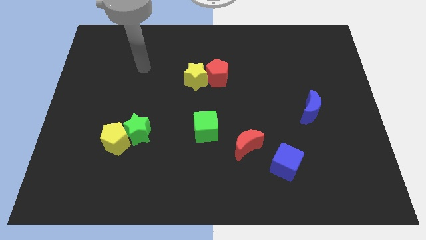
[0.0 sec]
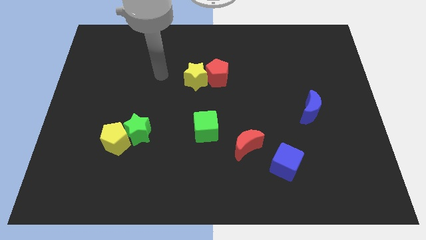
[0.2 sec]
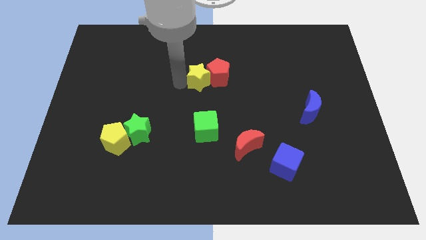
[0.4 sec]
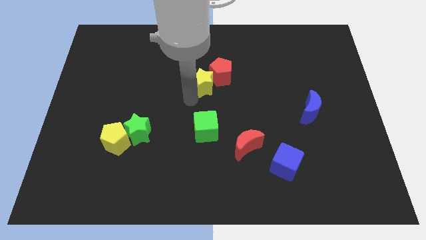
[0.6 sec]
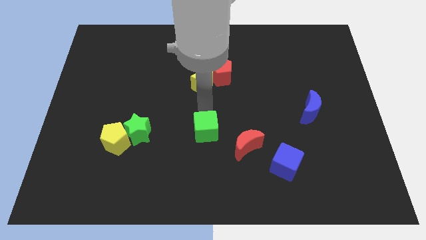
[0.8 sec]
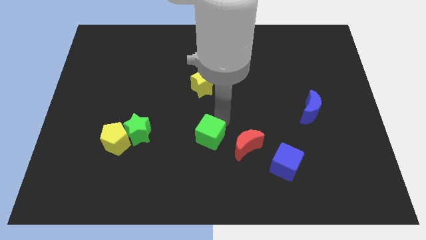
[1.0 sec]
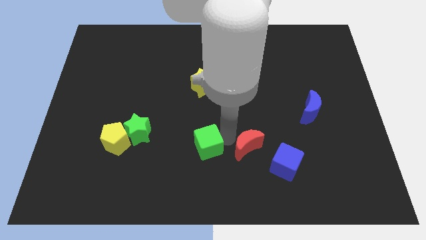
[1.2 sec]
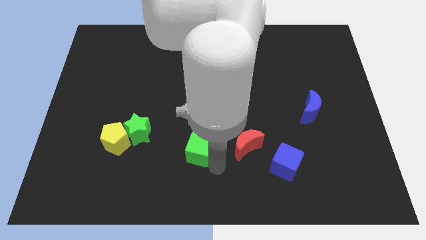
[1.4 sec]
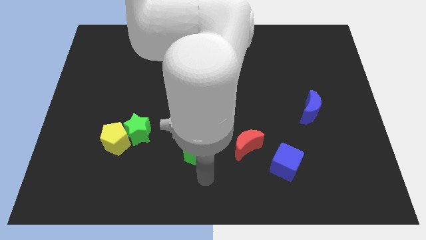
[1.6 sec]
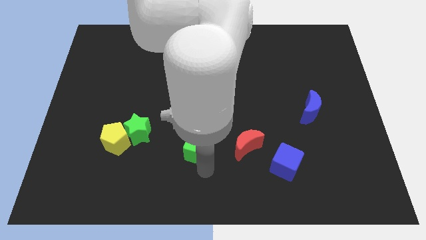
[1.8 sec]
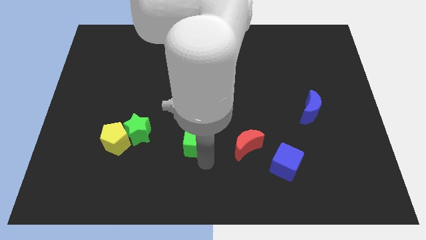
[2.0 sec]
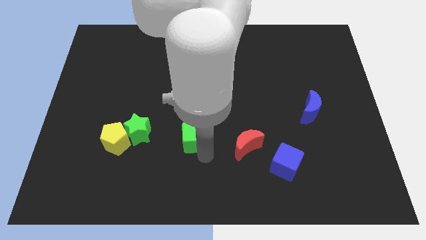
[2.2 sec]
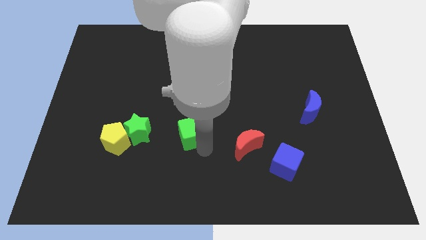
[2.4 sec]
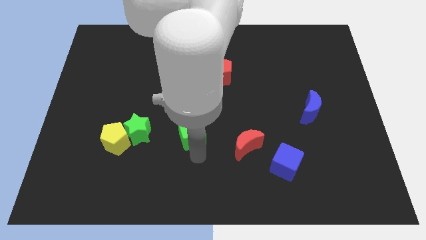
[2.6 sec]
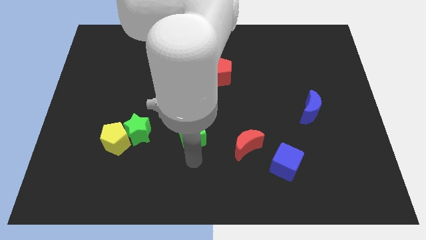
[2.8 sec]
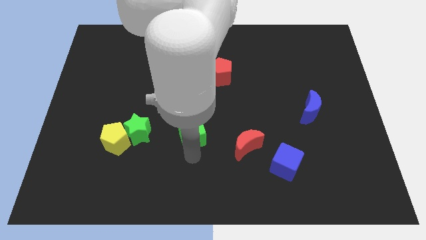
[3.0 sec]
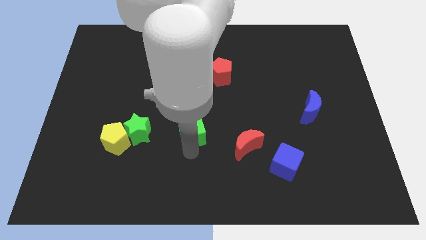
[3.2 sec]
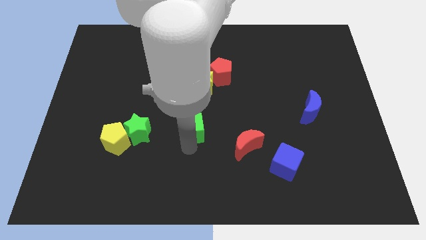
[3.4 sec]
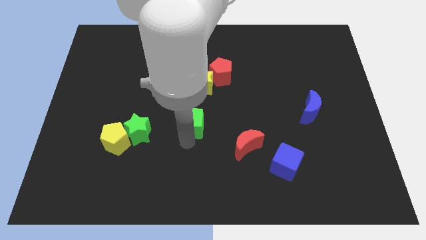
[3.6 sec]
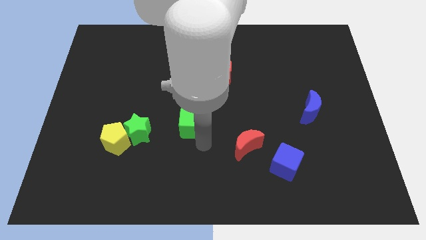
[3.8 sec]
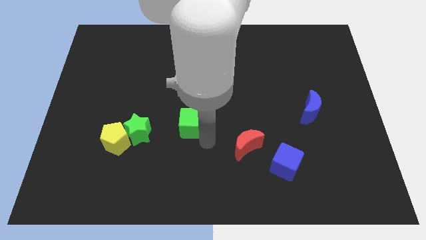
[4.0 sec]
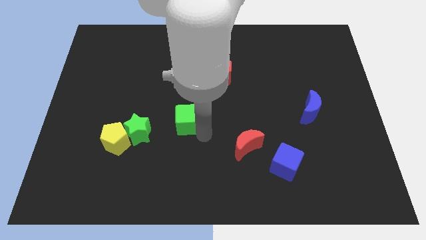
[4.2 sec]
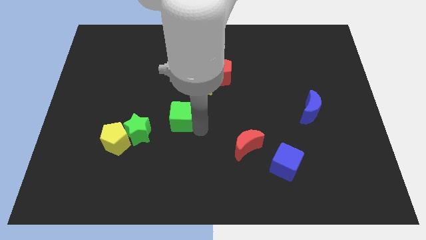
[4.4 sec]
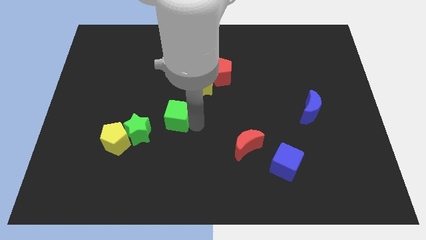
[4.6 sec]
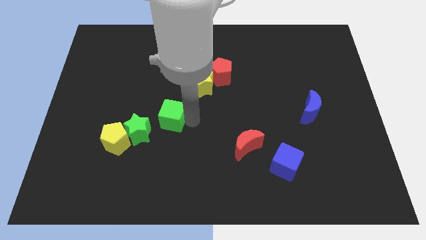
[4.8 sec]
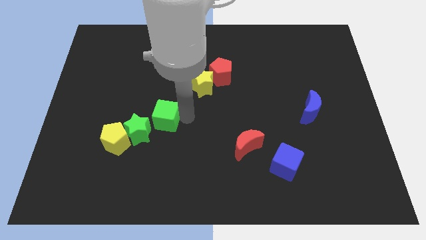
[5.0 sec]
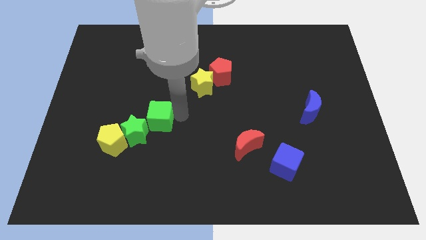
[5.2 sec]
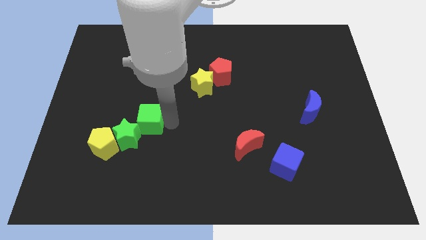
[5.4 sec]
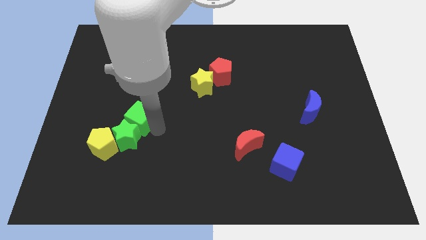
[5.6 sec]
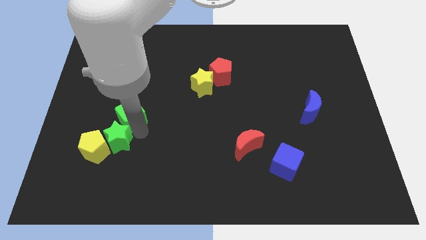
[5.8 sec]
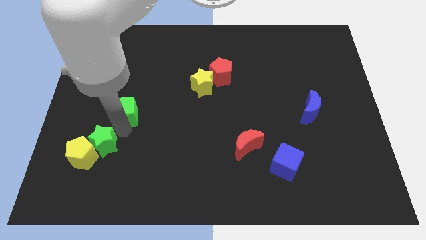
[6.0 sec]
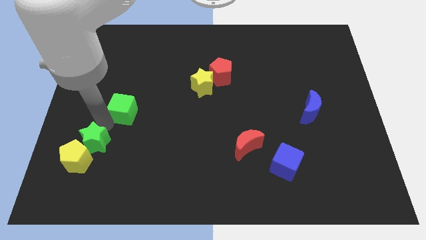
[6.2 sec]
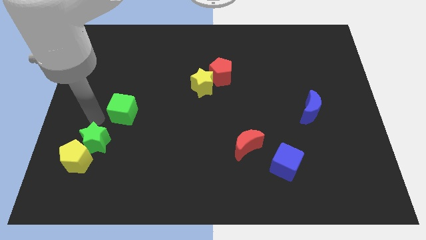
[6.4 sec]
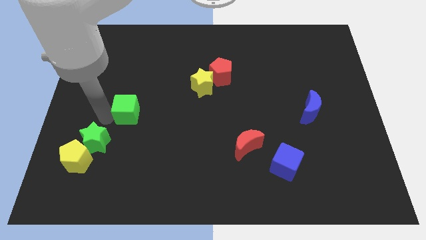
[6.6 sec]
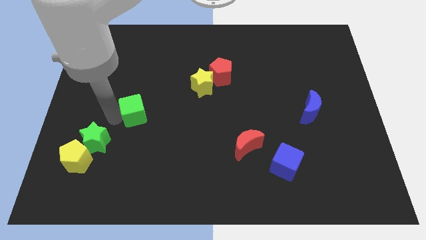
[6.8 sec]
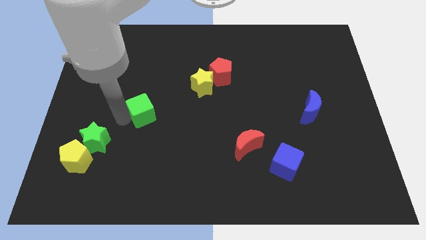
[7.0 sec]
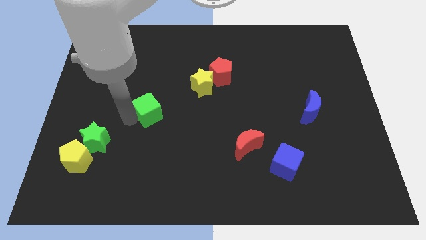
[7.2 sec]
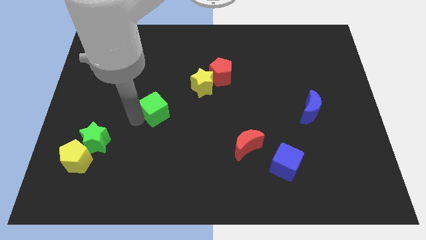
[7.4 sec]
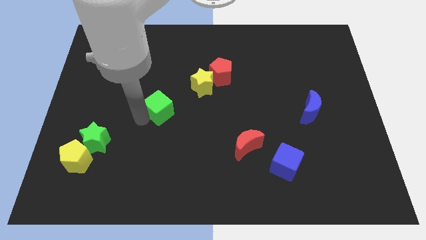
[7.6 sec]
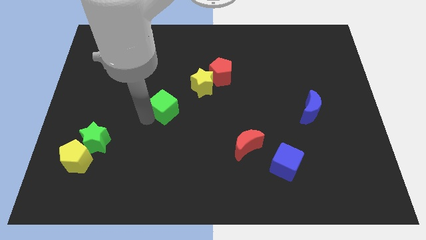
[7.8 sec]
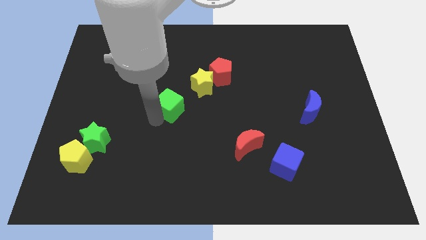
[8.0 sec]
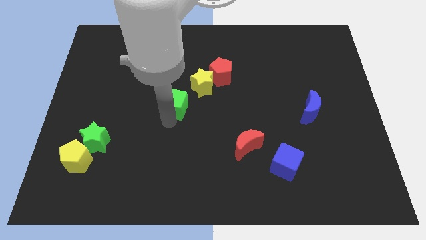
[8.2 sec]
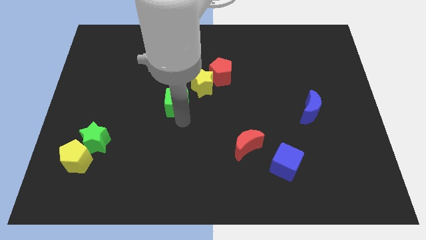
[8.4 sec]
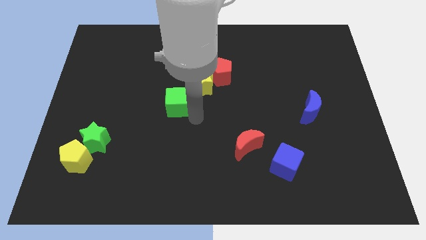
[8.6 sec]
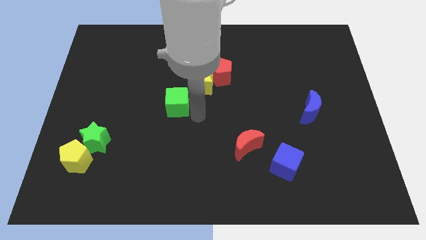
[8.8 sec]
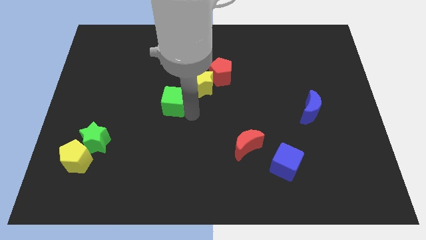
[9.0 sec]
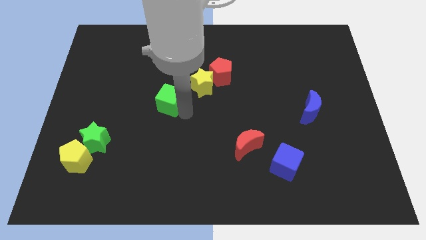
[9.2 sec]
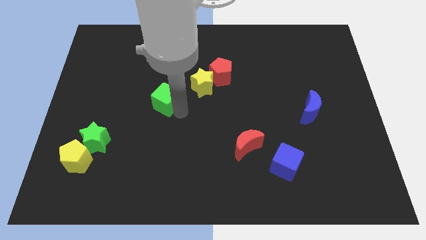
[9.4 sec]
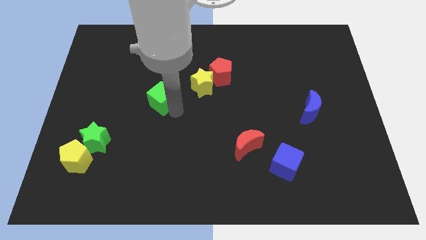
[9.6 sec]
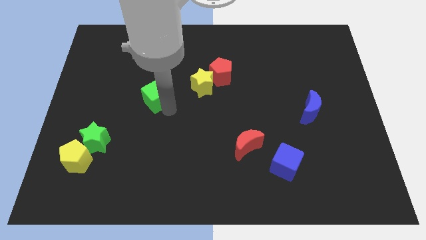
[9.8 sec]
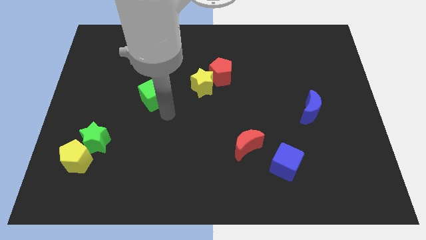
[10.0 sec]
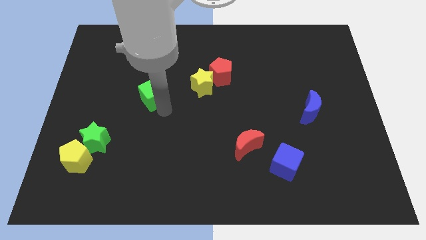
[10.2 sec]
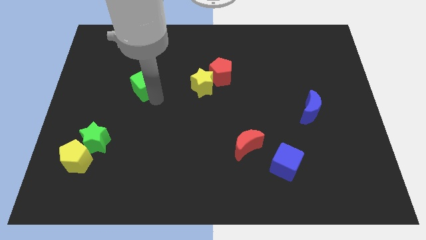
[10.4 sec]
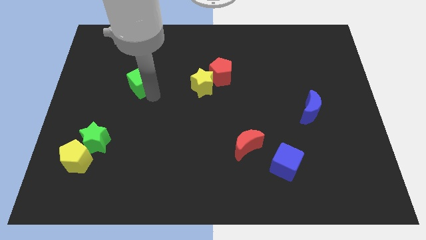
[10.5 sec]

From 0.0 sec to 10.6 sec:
slide the green cube up and then left

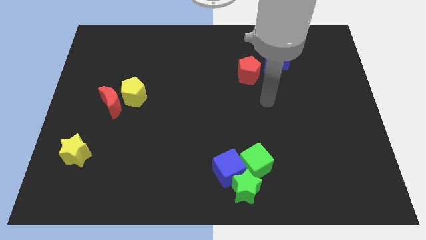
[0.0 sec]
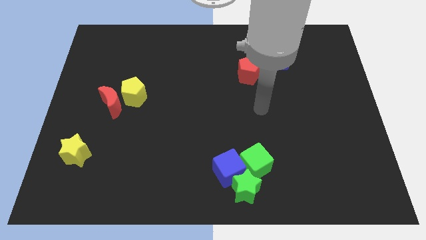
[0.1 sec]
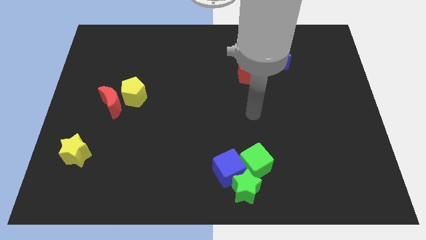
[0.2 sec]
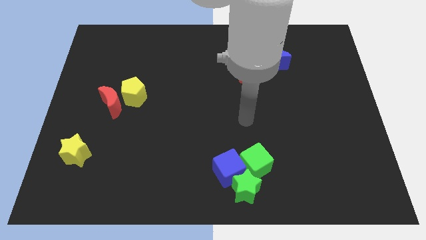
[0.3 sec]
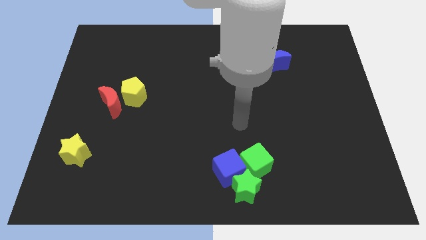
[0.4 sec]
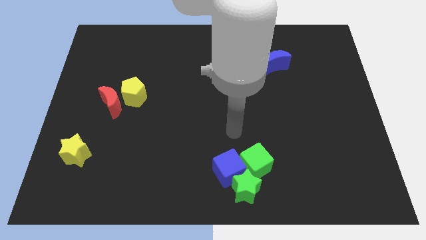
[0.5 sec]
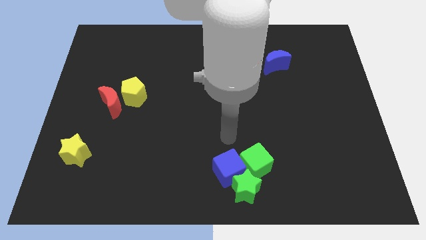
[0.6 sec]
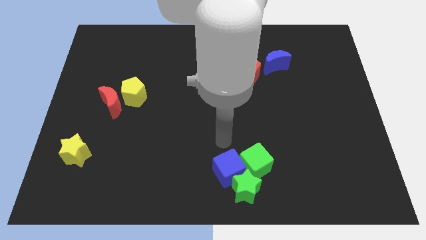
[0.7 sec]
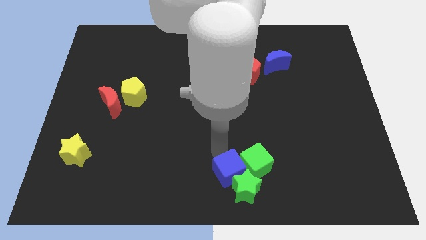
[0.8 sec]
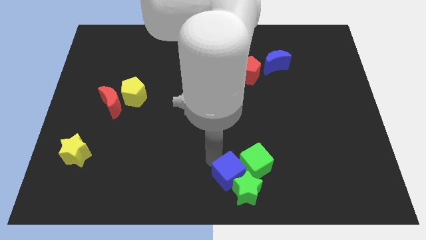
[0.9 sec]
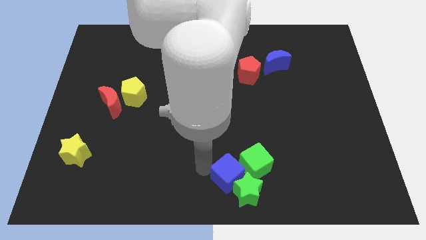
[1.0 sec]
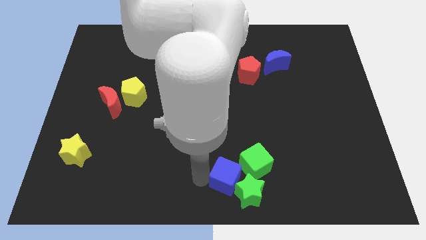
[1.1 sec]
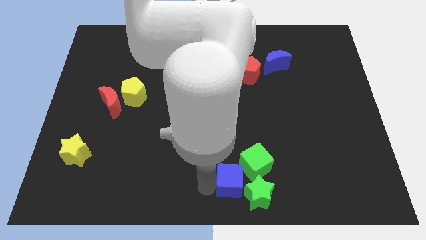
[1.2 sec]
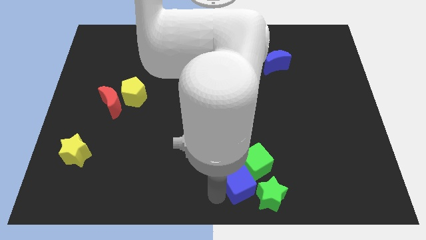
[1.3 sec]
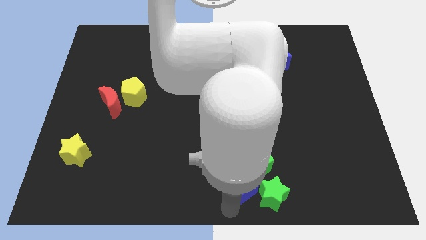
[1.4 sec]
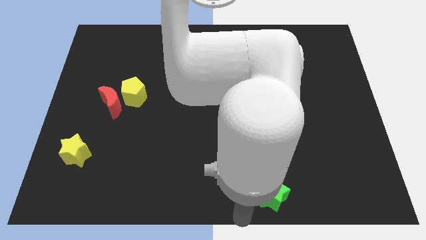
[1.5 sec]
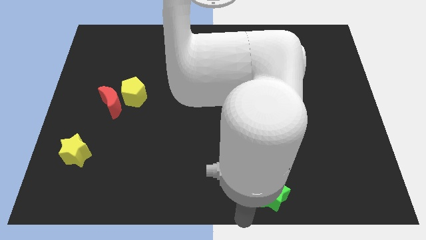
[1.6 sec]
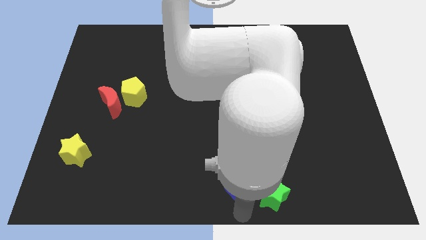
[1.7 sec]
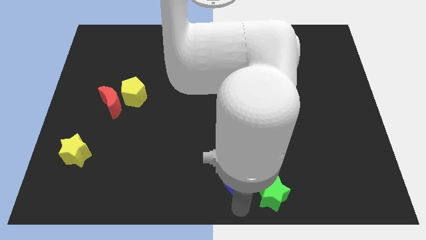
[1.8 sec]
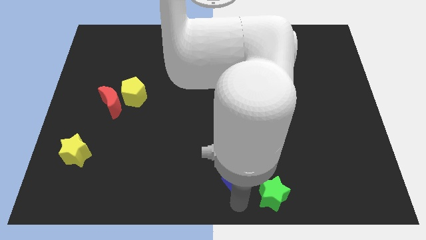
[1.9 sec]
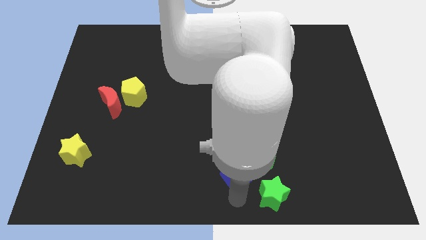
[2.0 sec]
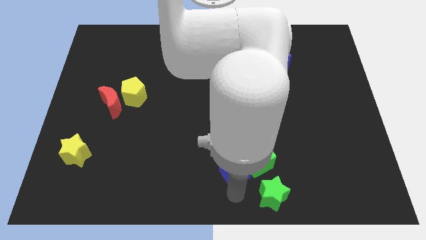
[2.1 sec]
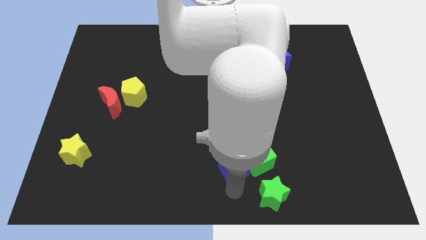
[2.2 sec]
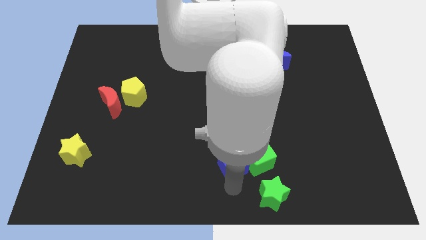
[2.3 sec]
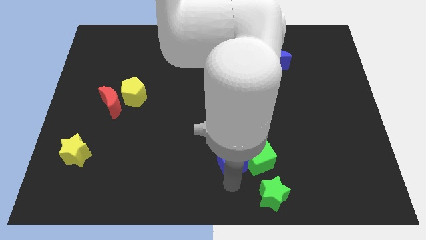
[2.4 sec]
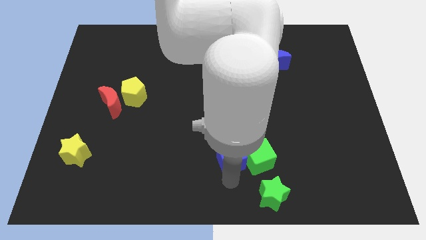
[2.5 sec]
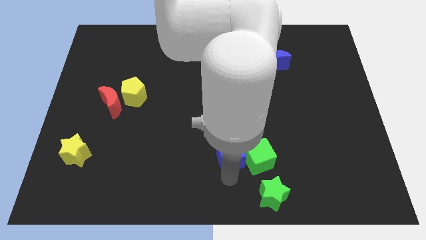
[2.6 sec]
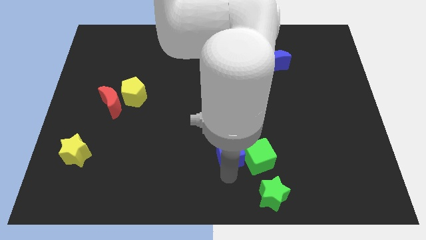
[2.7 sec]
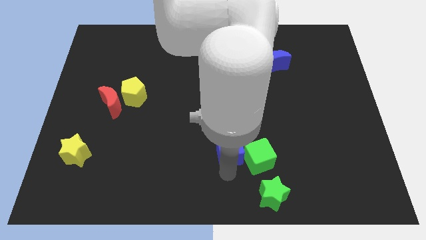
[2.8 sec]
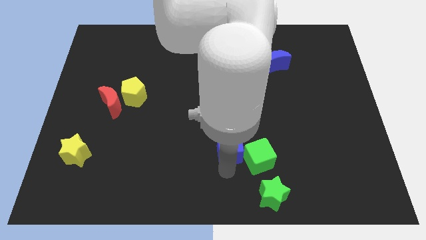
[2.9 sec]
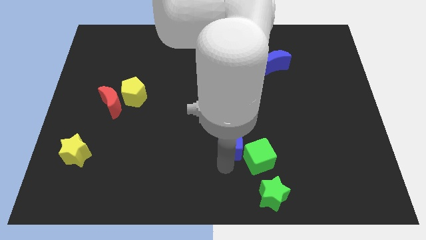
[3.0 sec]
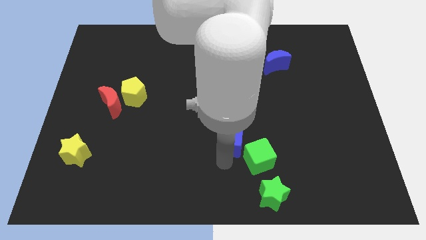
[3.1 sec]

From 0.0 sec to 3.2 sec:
slide the blue cube upwards slightly
